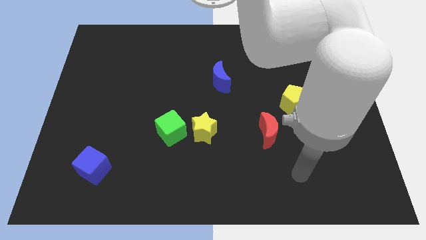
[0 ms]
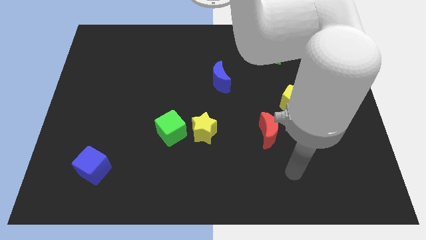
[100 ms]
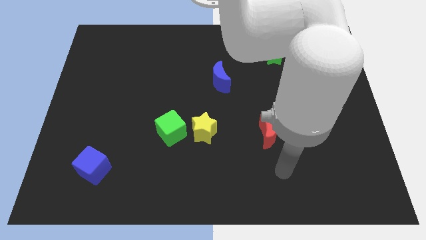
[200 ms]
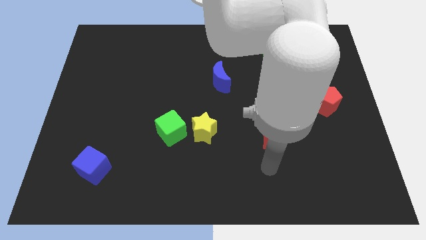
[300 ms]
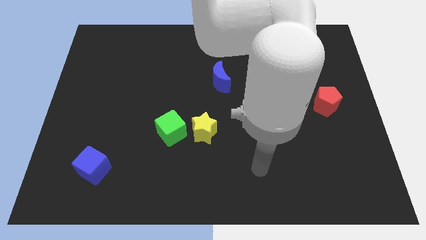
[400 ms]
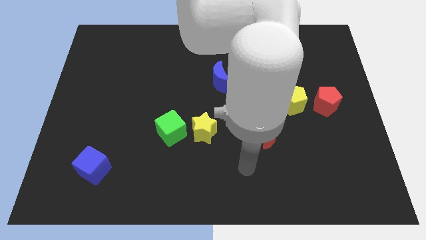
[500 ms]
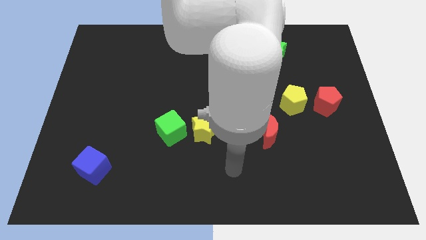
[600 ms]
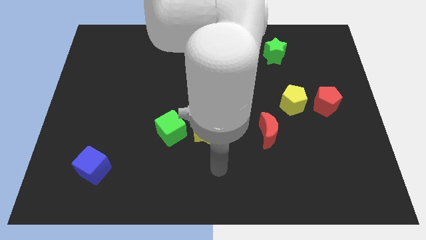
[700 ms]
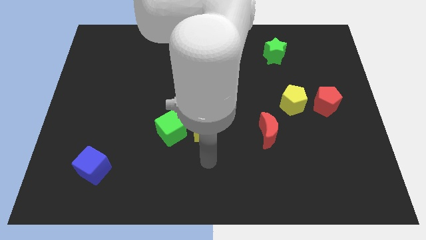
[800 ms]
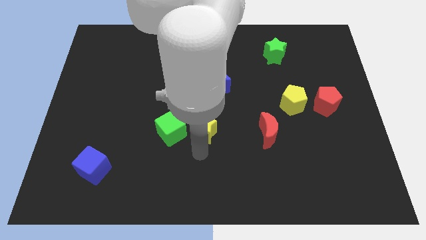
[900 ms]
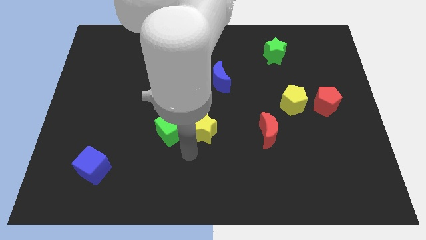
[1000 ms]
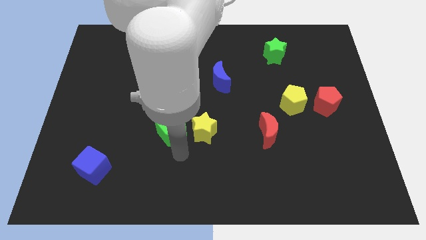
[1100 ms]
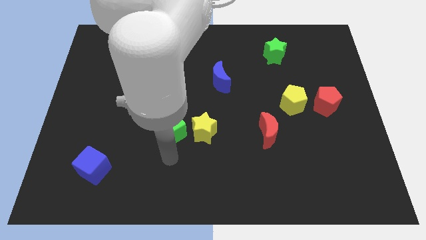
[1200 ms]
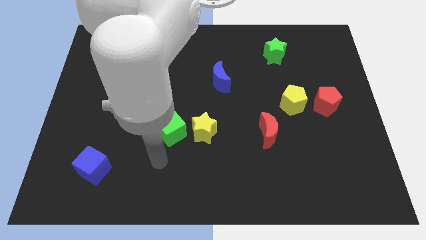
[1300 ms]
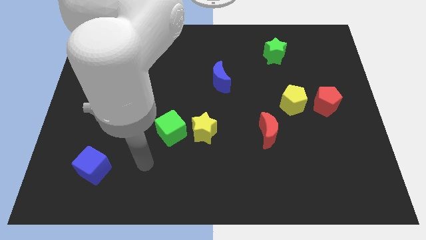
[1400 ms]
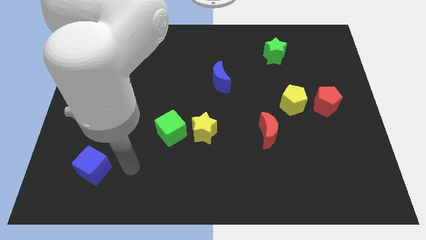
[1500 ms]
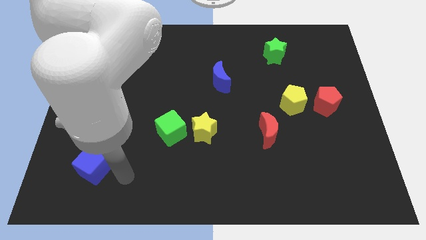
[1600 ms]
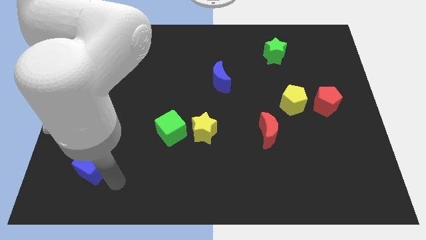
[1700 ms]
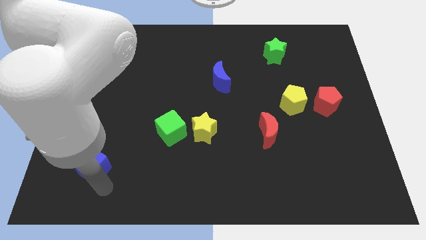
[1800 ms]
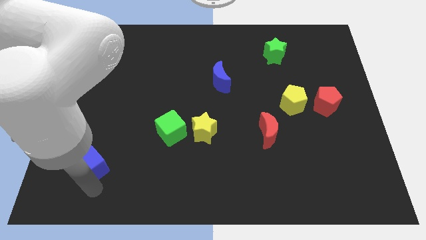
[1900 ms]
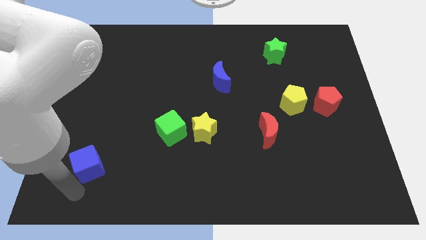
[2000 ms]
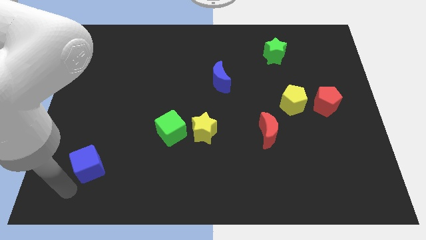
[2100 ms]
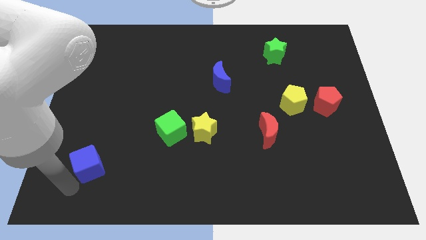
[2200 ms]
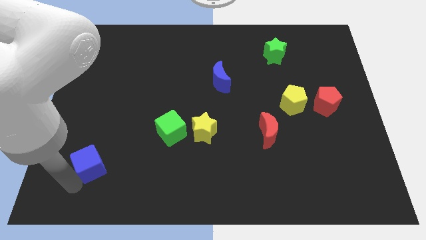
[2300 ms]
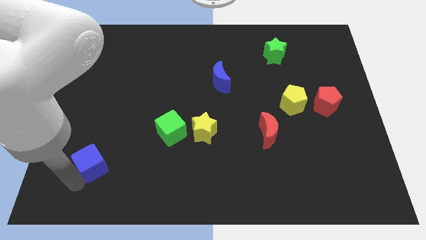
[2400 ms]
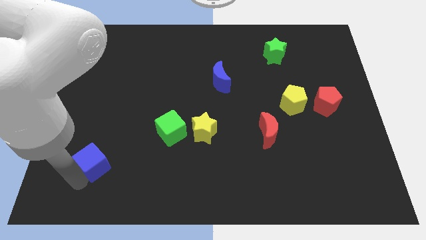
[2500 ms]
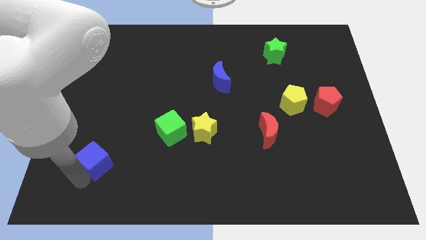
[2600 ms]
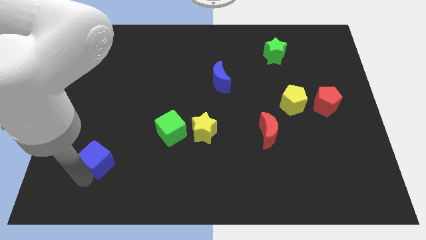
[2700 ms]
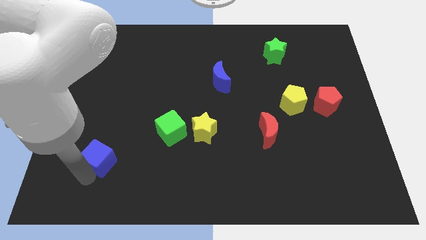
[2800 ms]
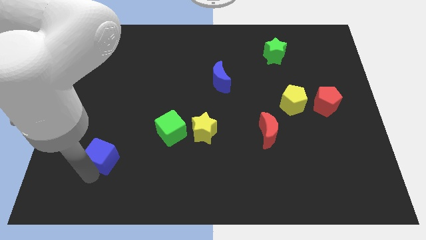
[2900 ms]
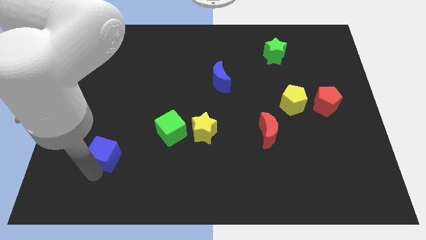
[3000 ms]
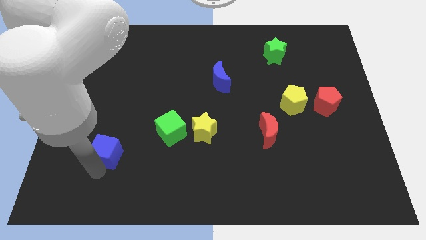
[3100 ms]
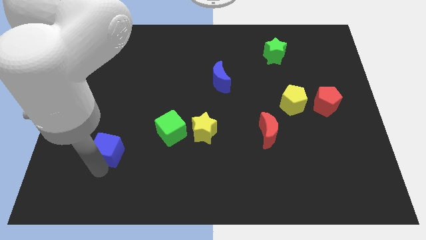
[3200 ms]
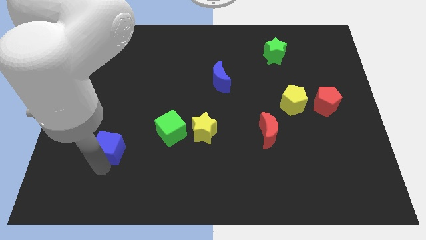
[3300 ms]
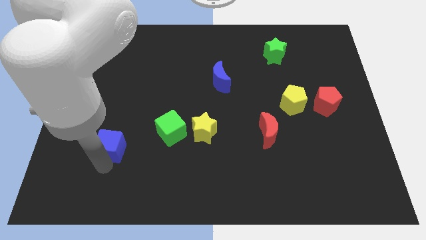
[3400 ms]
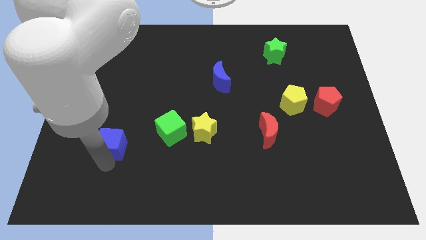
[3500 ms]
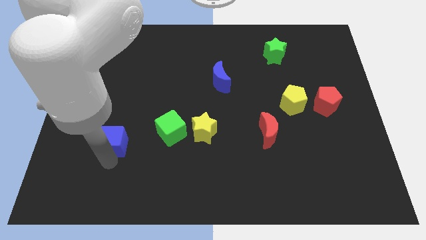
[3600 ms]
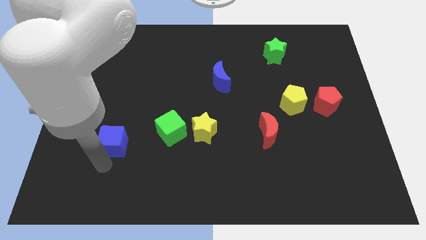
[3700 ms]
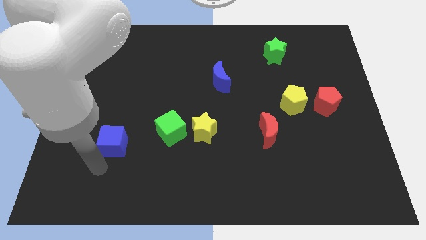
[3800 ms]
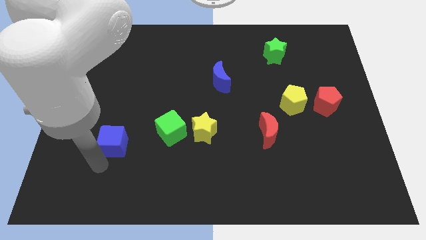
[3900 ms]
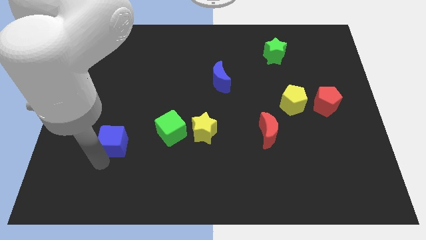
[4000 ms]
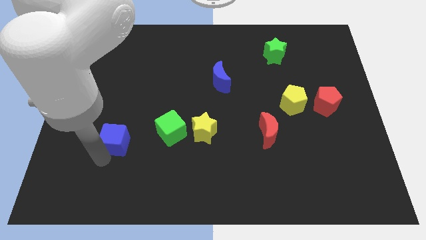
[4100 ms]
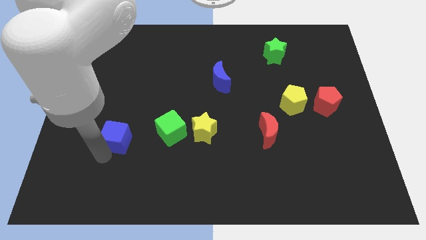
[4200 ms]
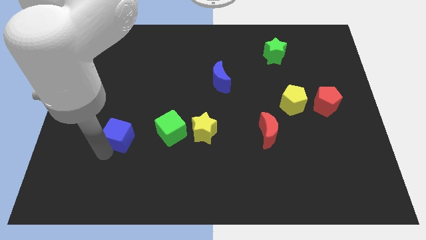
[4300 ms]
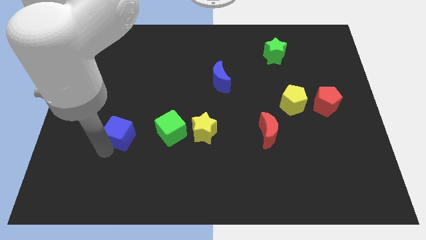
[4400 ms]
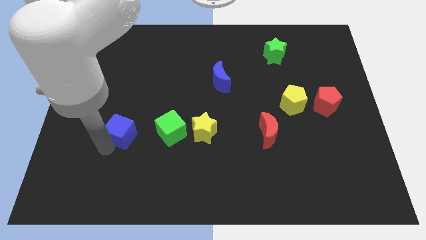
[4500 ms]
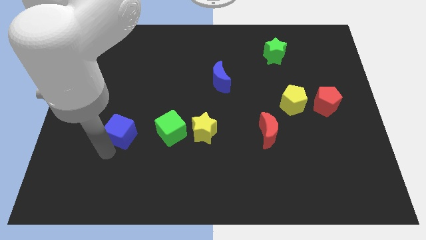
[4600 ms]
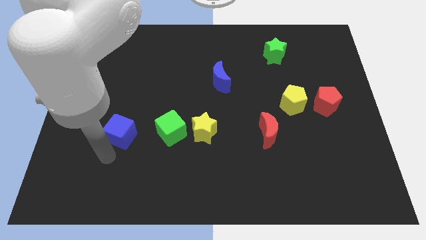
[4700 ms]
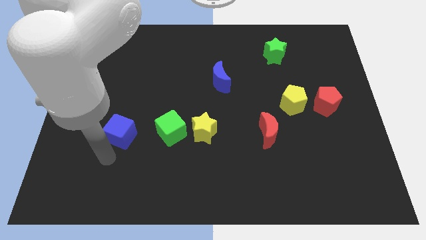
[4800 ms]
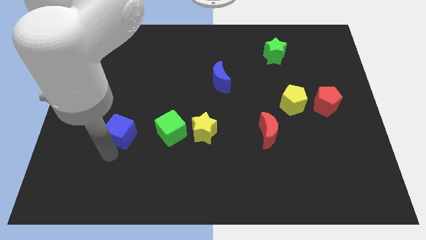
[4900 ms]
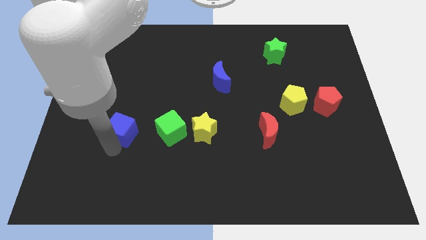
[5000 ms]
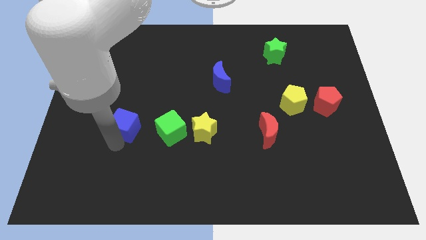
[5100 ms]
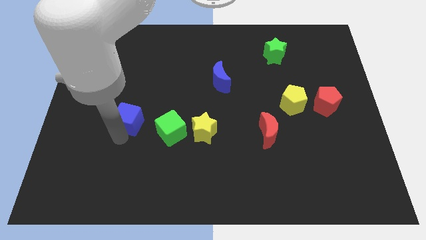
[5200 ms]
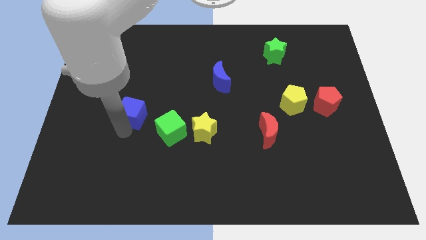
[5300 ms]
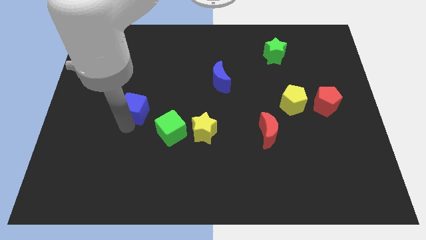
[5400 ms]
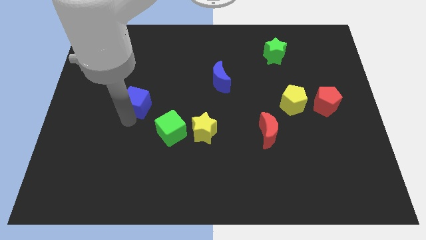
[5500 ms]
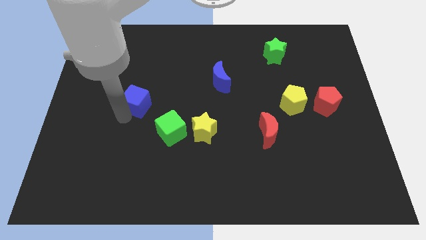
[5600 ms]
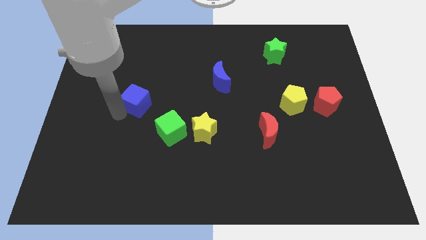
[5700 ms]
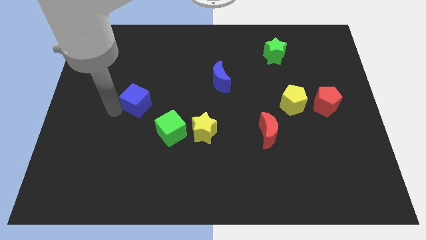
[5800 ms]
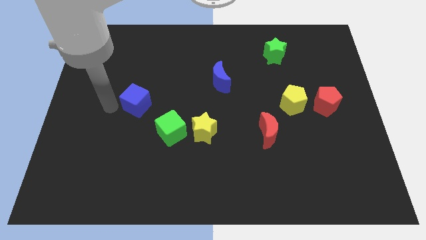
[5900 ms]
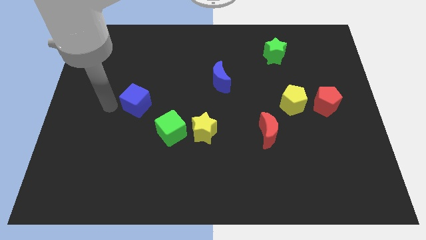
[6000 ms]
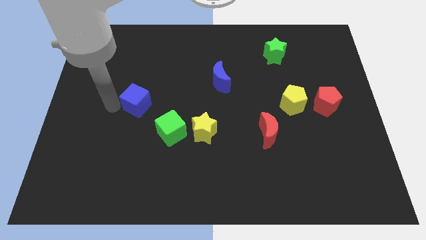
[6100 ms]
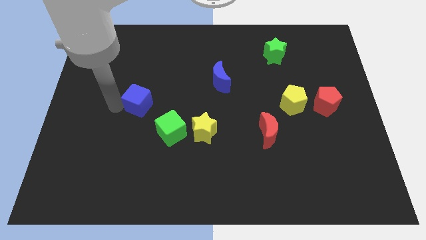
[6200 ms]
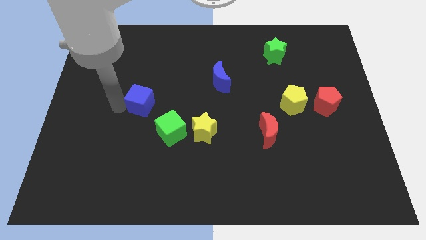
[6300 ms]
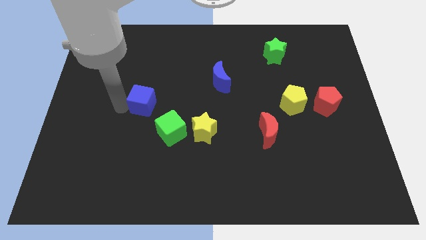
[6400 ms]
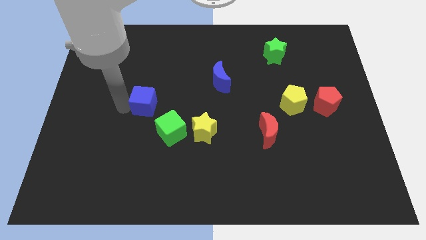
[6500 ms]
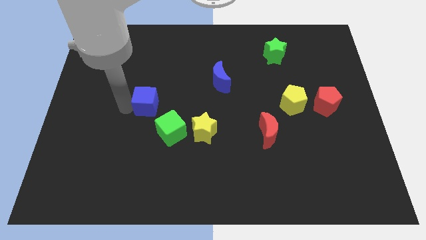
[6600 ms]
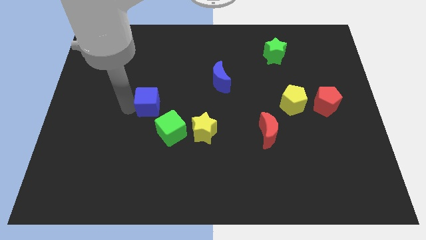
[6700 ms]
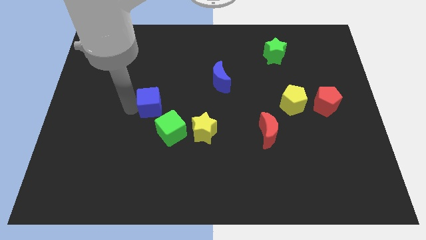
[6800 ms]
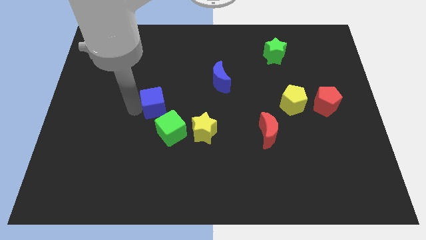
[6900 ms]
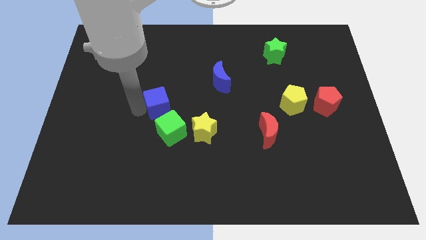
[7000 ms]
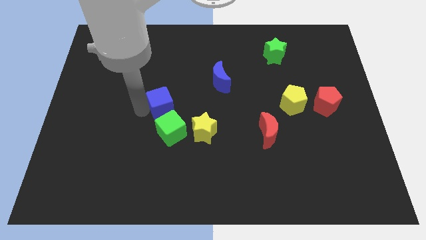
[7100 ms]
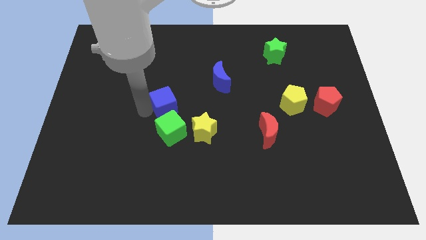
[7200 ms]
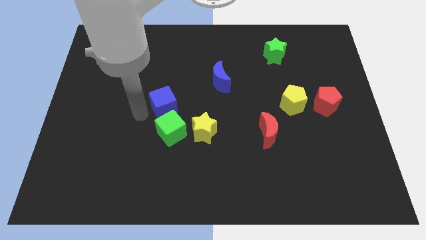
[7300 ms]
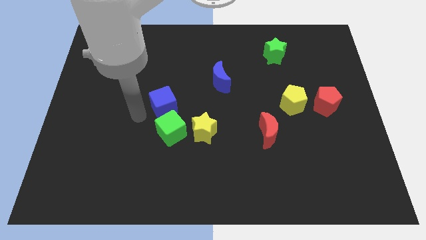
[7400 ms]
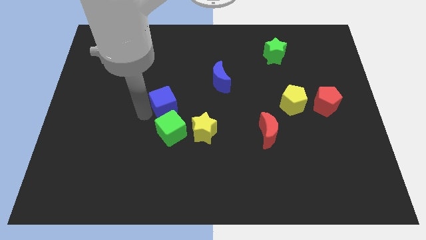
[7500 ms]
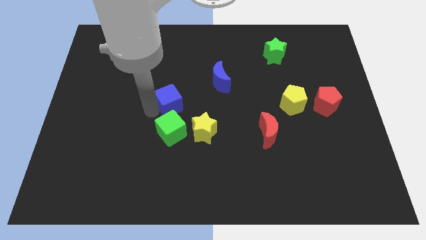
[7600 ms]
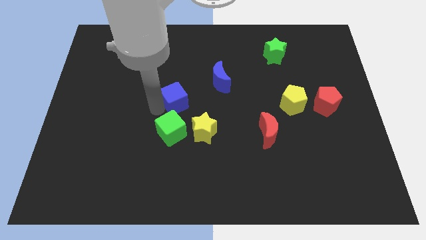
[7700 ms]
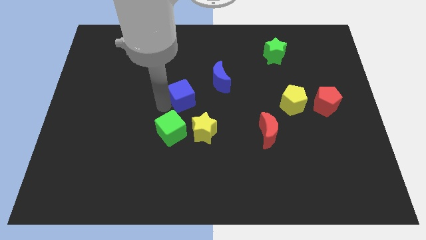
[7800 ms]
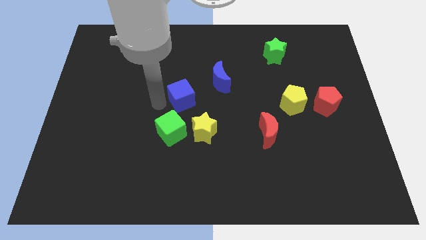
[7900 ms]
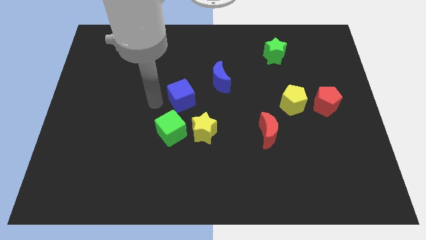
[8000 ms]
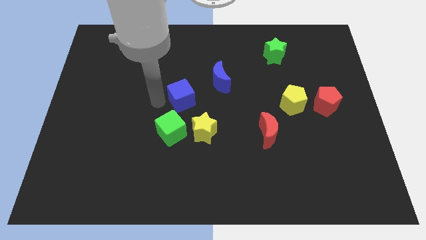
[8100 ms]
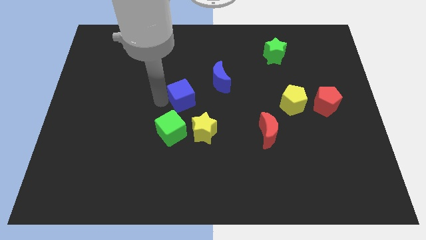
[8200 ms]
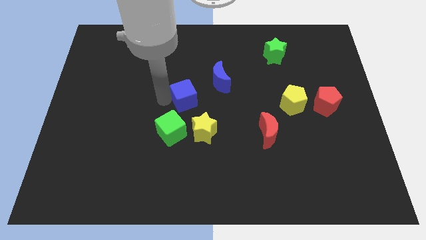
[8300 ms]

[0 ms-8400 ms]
slide the blue cube to the top side of the yellow star
